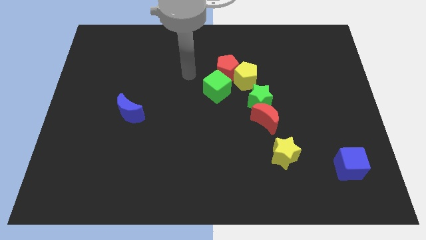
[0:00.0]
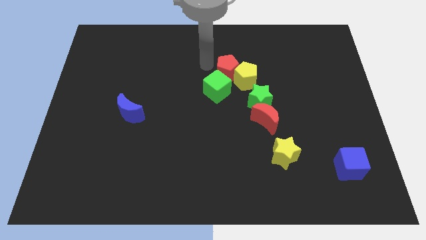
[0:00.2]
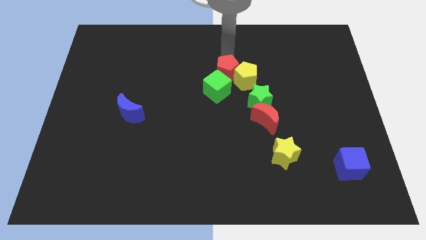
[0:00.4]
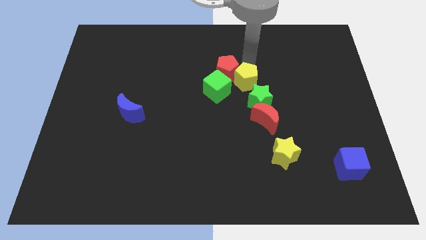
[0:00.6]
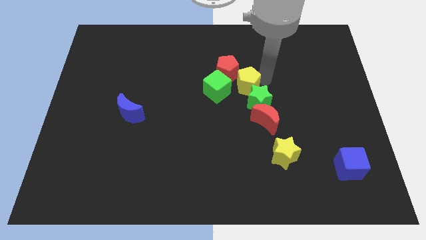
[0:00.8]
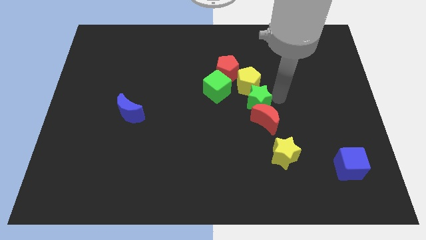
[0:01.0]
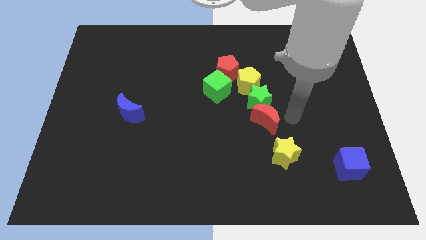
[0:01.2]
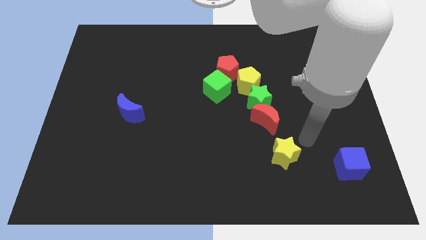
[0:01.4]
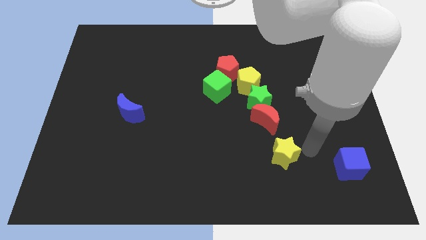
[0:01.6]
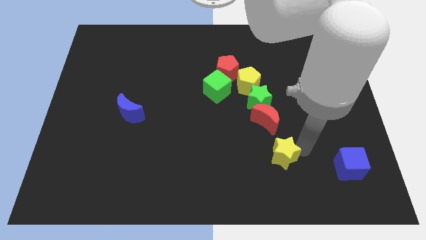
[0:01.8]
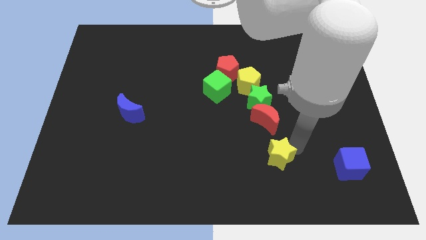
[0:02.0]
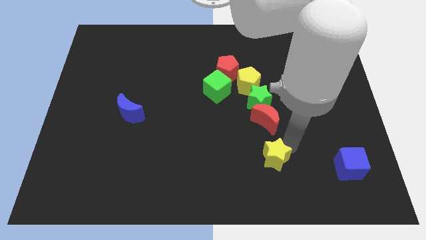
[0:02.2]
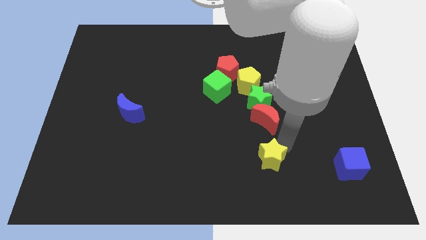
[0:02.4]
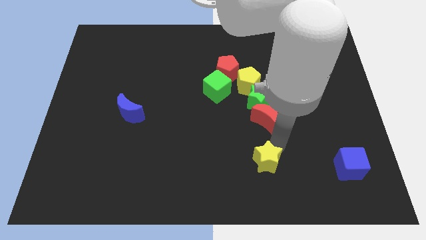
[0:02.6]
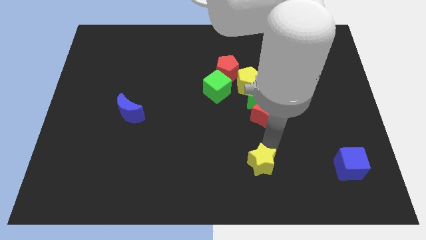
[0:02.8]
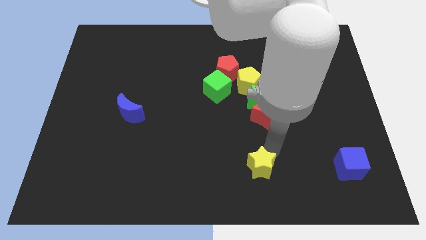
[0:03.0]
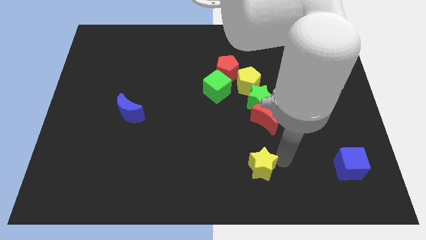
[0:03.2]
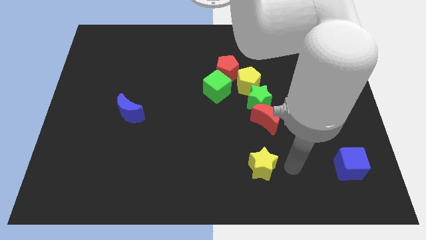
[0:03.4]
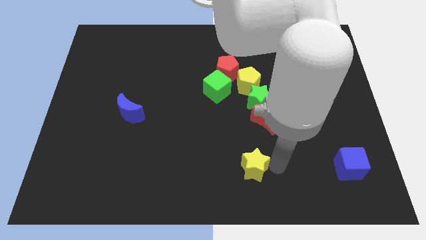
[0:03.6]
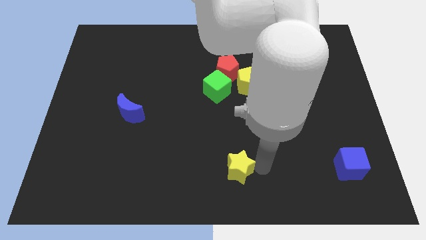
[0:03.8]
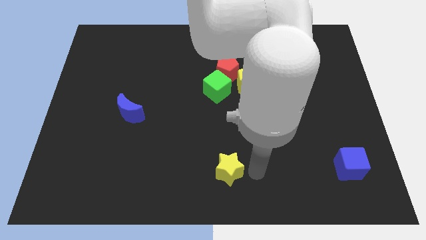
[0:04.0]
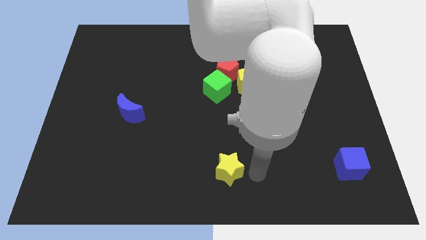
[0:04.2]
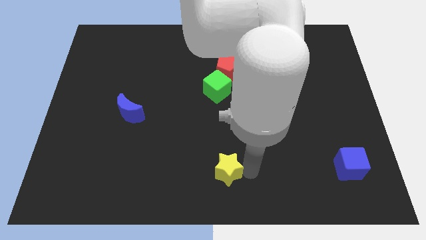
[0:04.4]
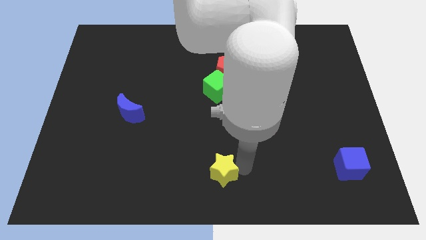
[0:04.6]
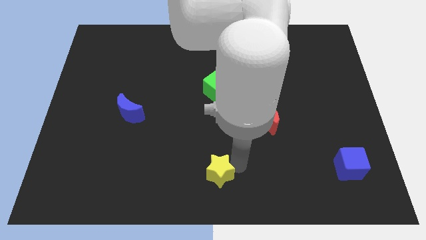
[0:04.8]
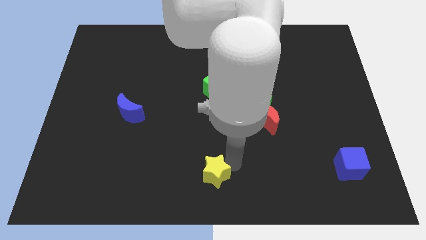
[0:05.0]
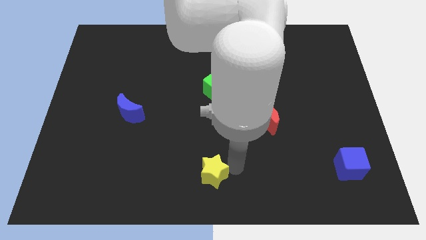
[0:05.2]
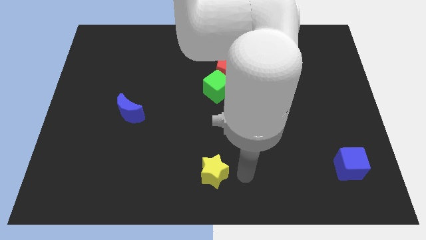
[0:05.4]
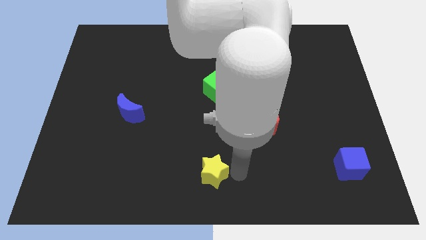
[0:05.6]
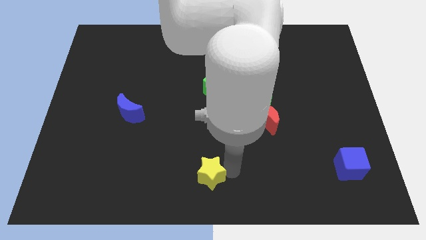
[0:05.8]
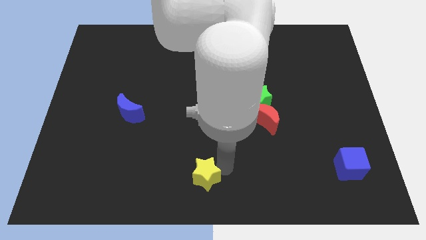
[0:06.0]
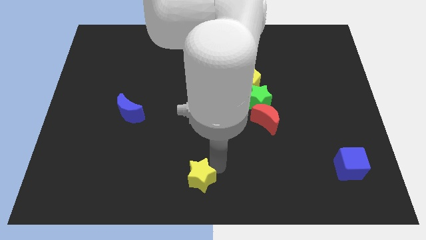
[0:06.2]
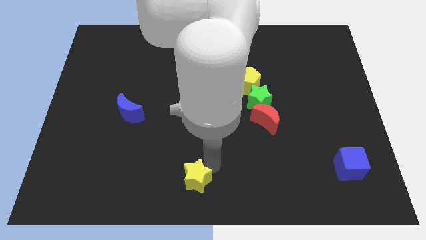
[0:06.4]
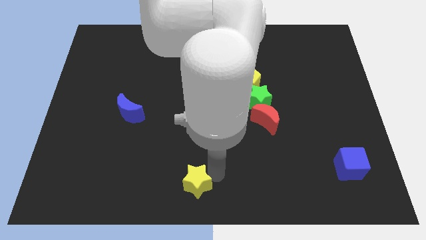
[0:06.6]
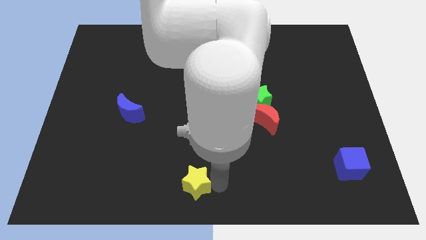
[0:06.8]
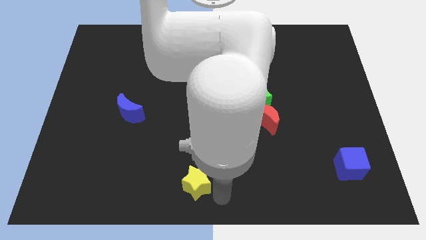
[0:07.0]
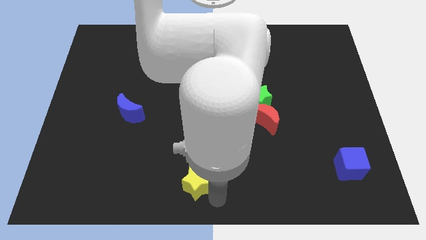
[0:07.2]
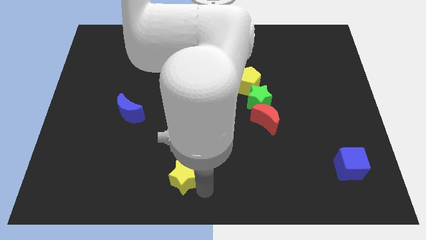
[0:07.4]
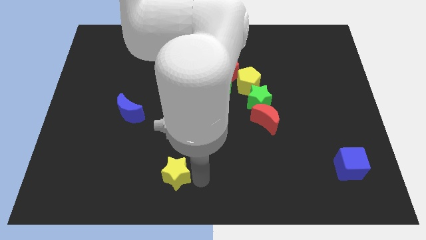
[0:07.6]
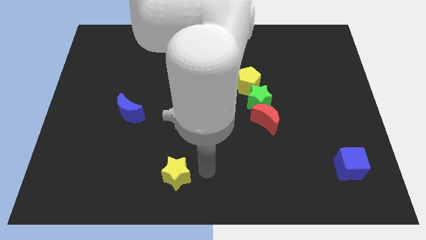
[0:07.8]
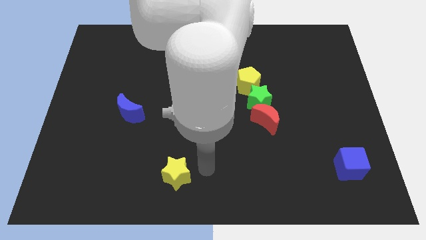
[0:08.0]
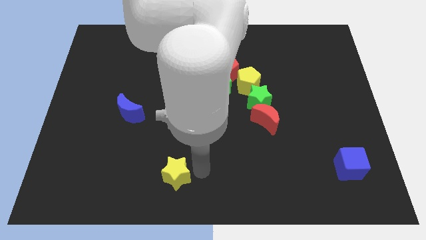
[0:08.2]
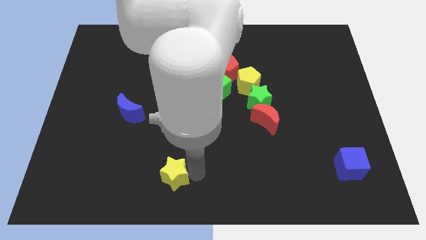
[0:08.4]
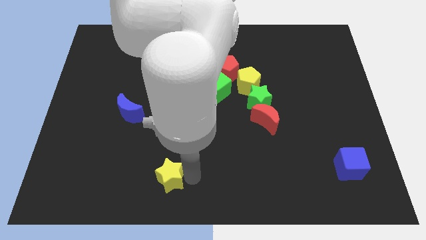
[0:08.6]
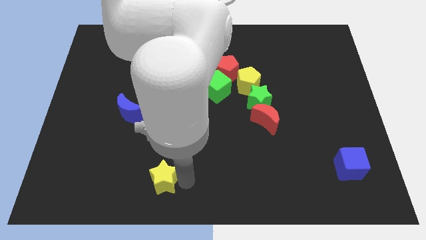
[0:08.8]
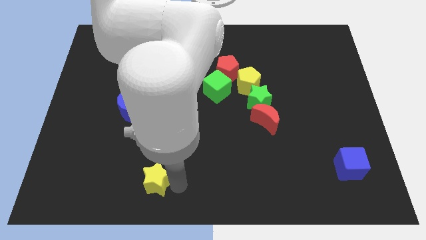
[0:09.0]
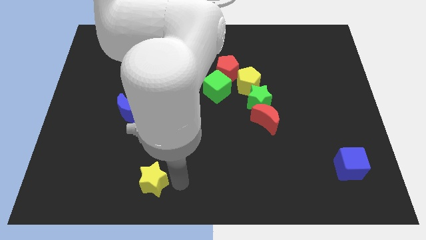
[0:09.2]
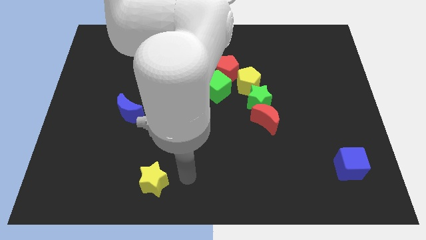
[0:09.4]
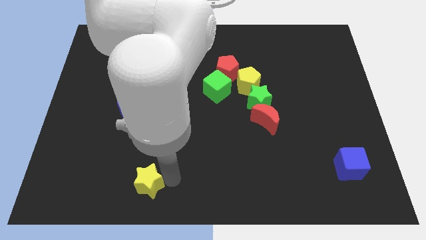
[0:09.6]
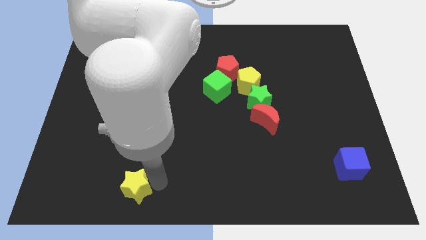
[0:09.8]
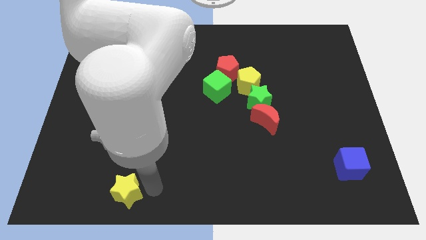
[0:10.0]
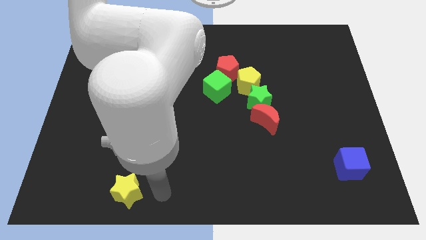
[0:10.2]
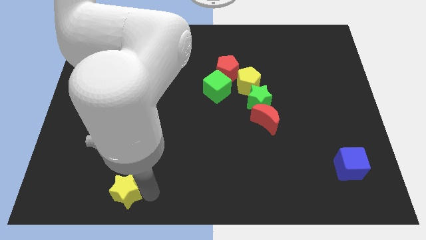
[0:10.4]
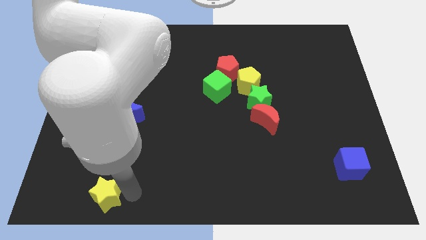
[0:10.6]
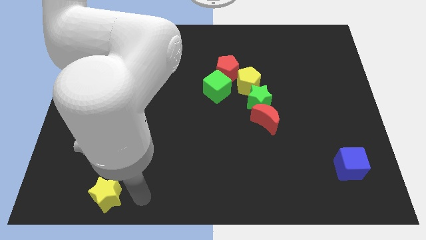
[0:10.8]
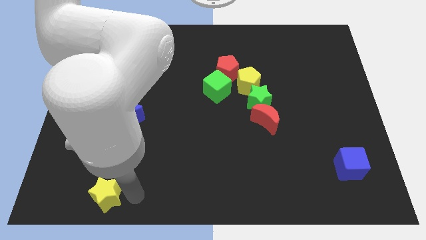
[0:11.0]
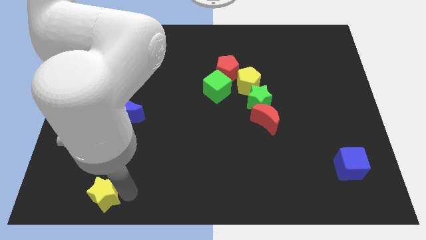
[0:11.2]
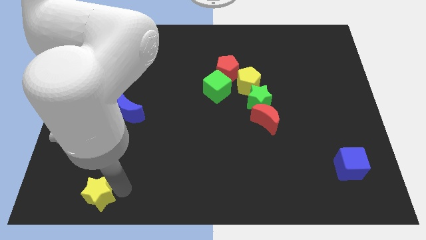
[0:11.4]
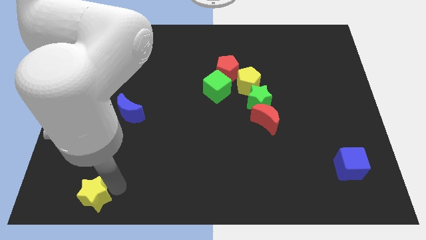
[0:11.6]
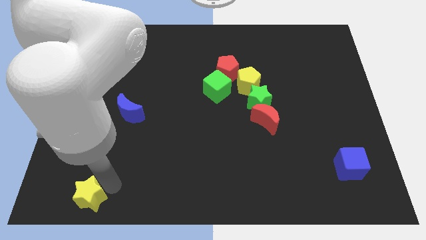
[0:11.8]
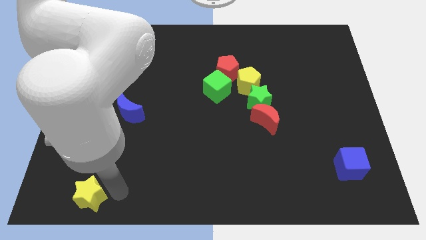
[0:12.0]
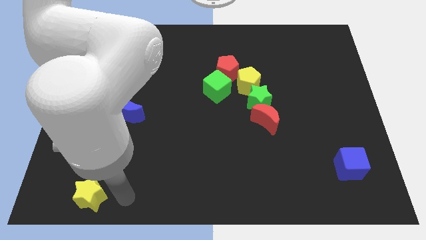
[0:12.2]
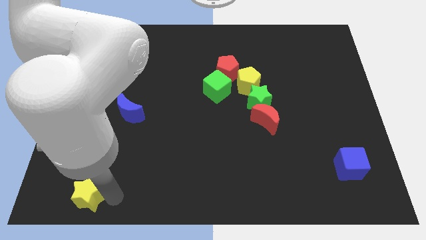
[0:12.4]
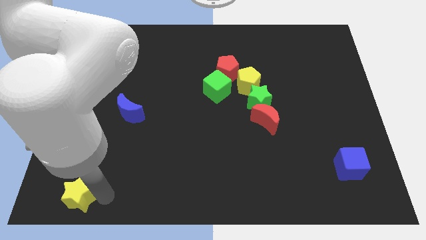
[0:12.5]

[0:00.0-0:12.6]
push the yellow star to the bottom left corner
